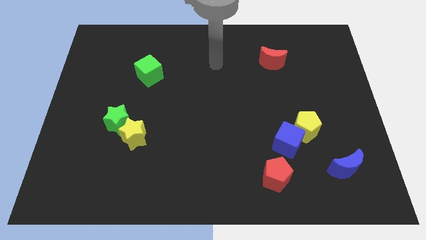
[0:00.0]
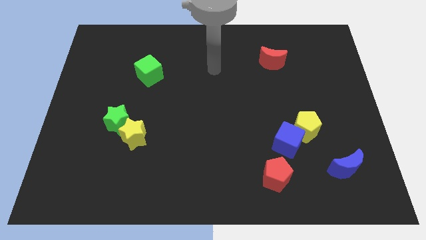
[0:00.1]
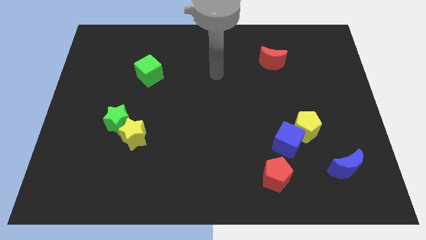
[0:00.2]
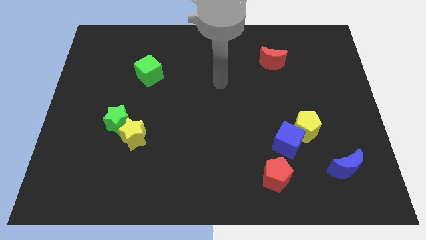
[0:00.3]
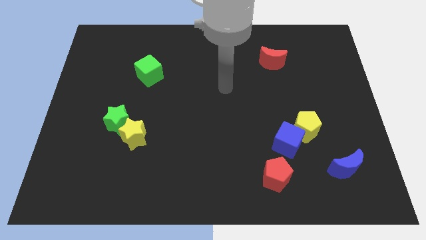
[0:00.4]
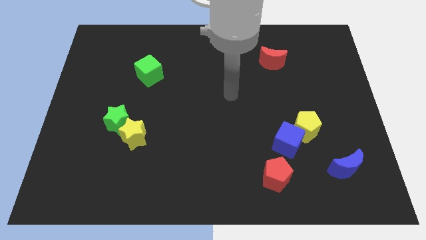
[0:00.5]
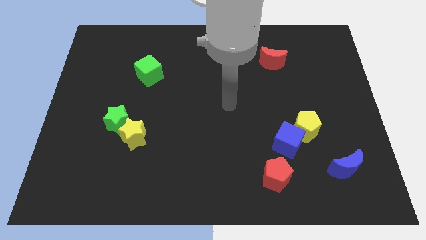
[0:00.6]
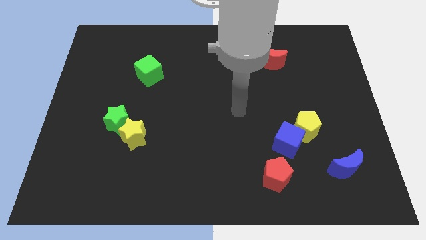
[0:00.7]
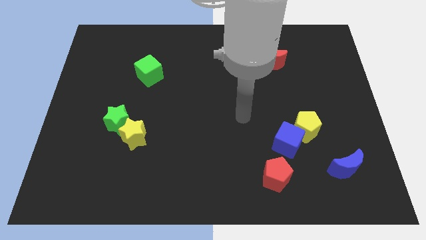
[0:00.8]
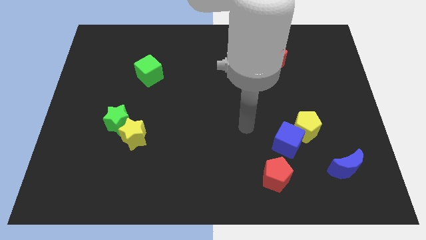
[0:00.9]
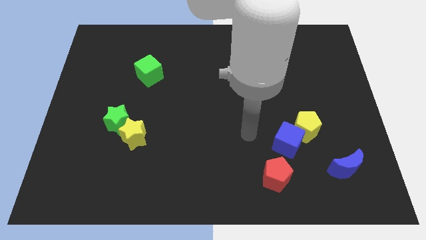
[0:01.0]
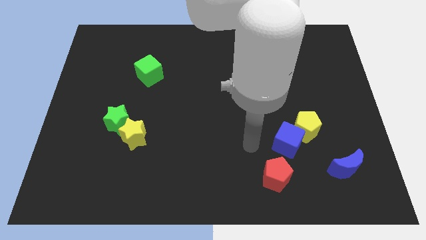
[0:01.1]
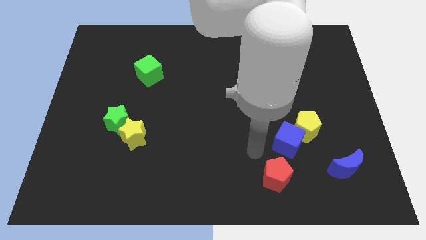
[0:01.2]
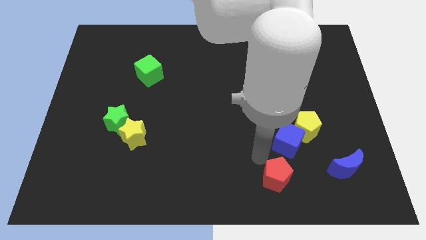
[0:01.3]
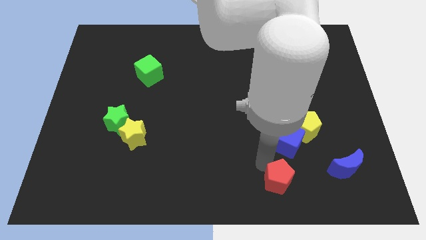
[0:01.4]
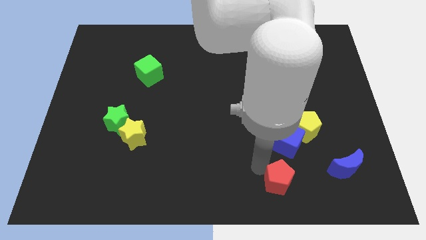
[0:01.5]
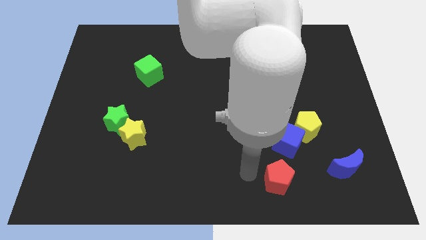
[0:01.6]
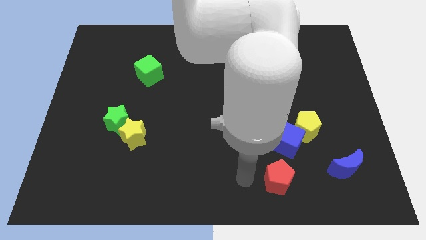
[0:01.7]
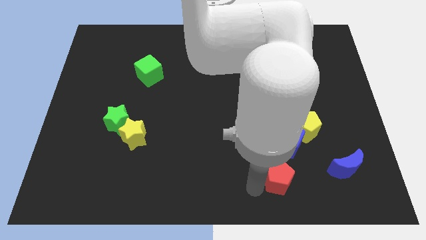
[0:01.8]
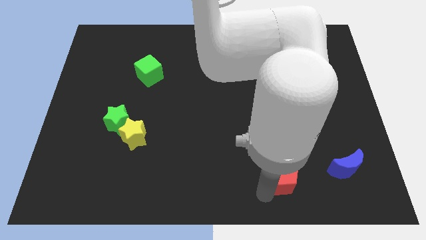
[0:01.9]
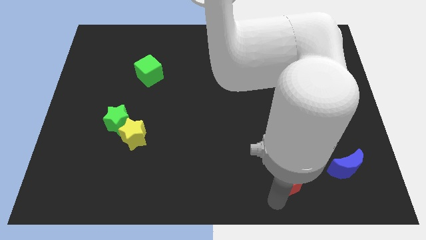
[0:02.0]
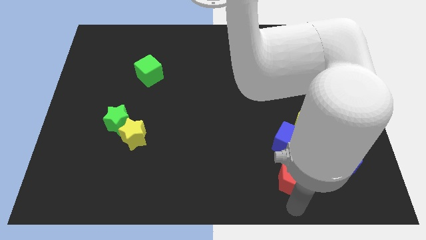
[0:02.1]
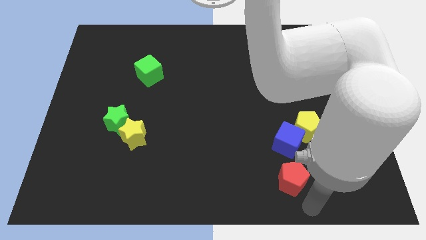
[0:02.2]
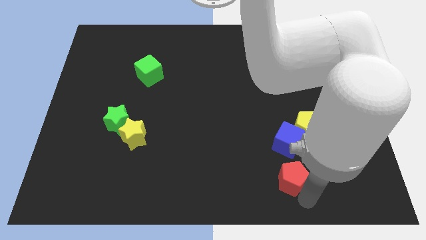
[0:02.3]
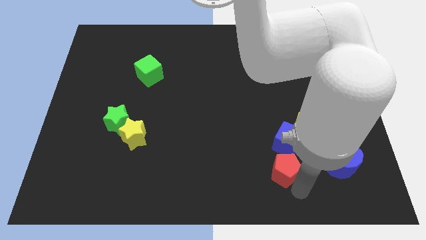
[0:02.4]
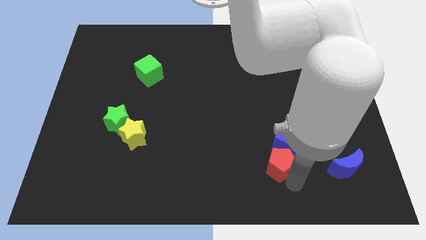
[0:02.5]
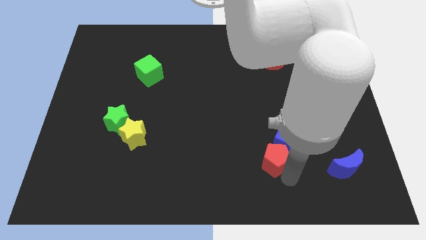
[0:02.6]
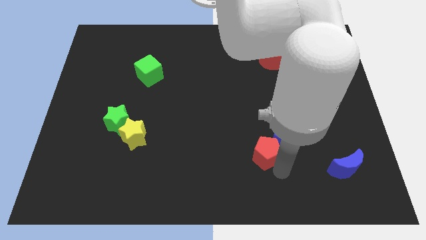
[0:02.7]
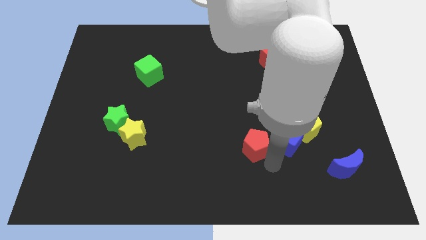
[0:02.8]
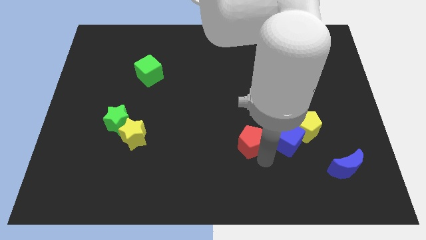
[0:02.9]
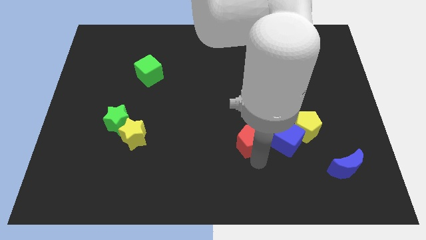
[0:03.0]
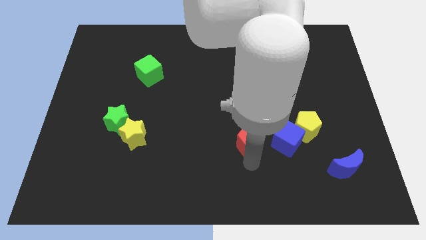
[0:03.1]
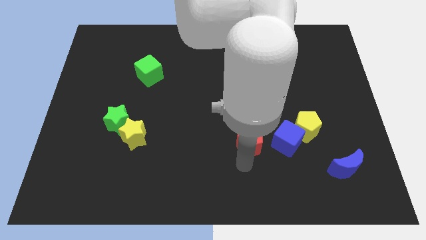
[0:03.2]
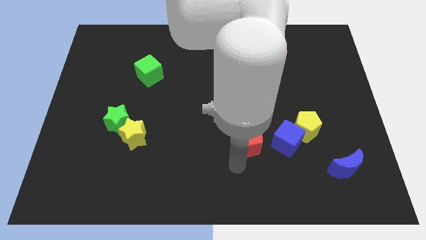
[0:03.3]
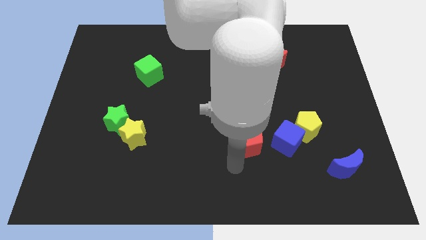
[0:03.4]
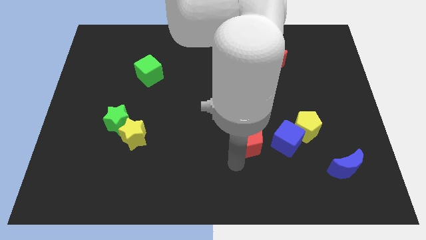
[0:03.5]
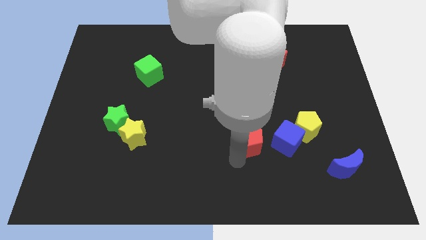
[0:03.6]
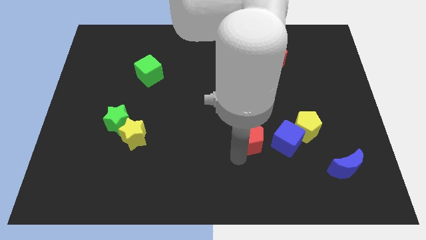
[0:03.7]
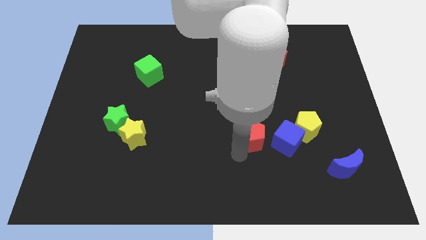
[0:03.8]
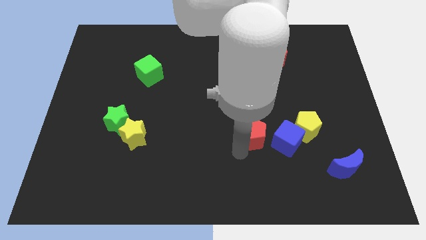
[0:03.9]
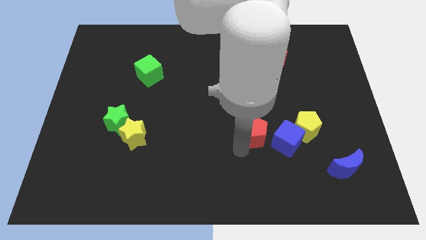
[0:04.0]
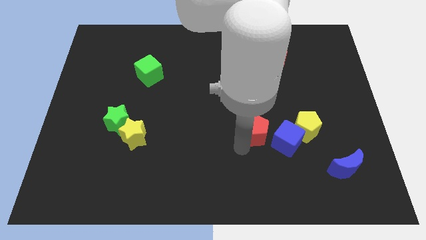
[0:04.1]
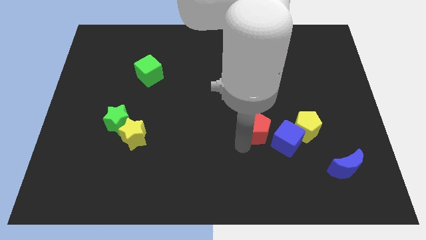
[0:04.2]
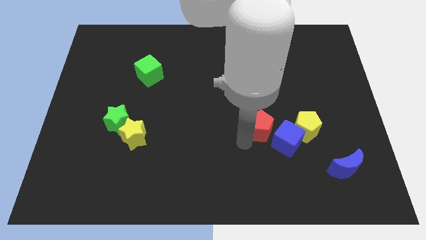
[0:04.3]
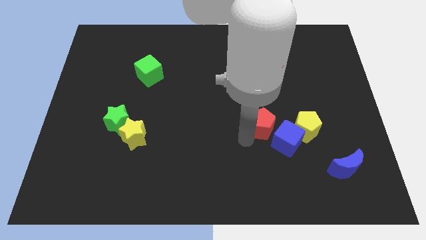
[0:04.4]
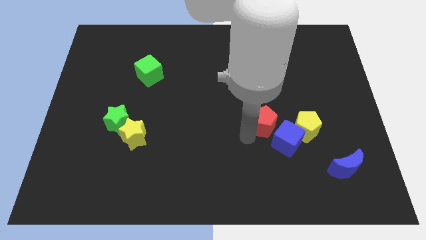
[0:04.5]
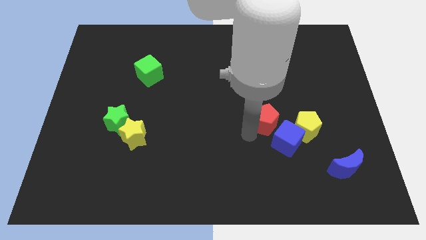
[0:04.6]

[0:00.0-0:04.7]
push the red pentagon to the top left side of the yellow pentagon

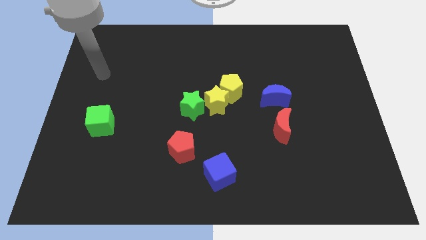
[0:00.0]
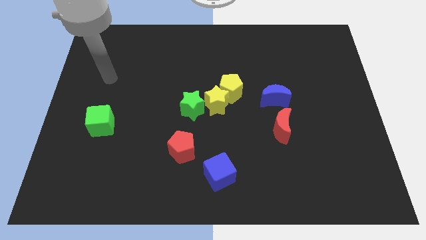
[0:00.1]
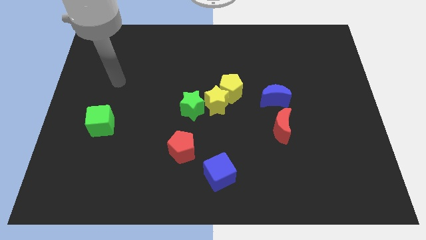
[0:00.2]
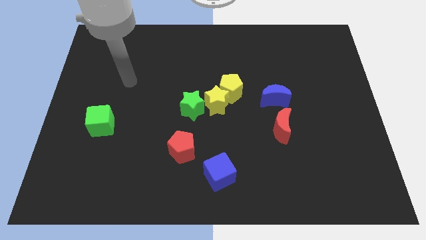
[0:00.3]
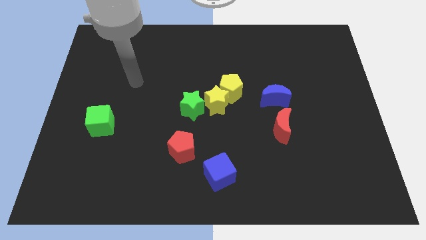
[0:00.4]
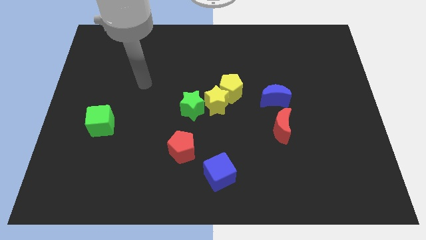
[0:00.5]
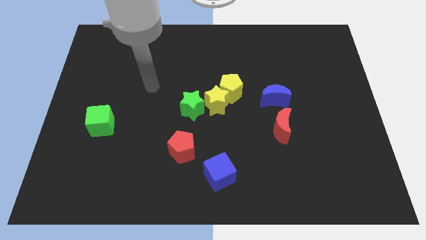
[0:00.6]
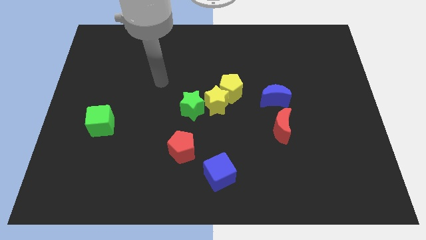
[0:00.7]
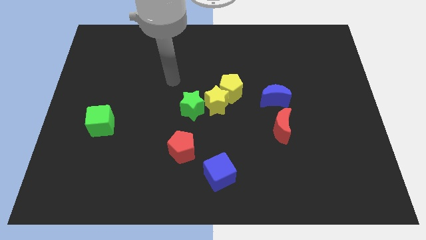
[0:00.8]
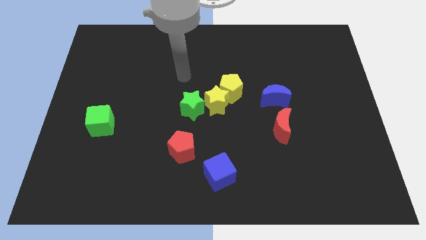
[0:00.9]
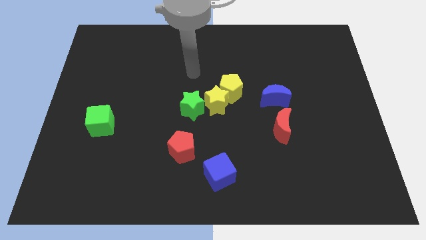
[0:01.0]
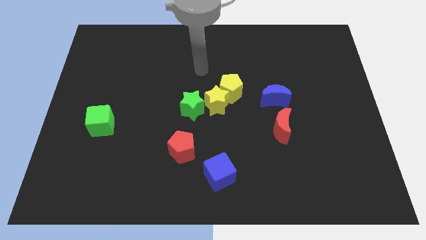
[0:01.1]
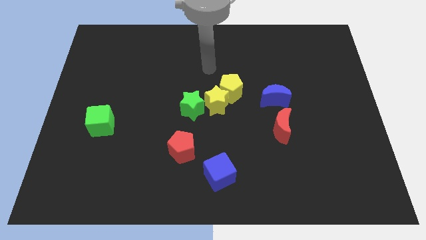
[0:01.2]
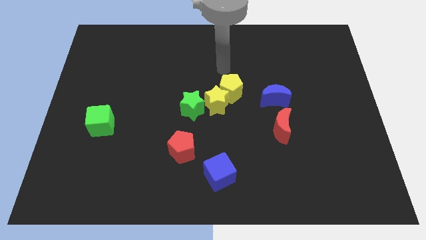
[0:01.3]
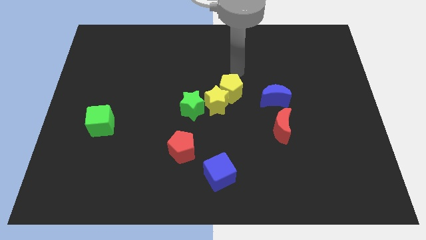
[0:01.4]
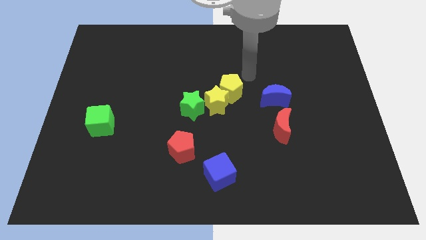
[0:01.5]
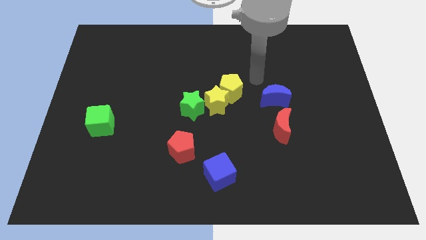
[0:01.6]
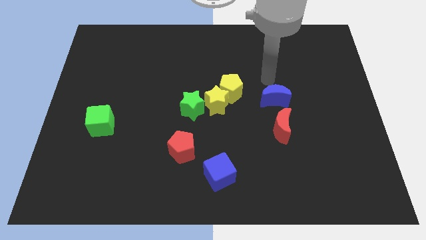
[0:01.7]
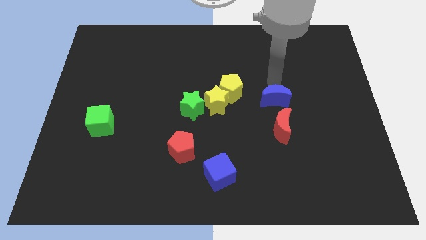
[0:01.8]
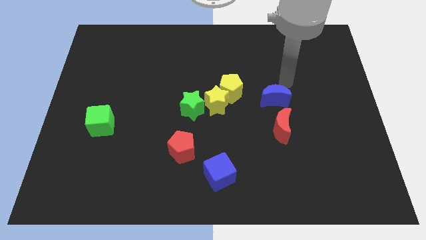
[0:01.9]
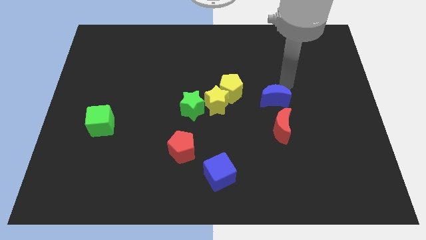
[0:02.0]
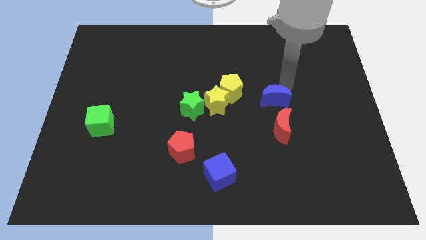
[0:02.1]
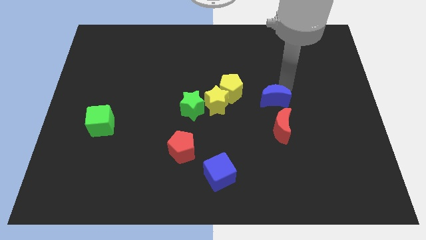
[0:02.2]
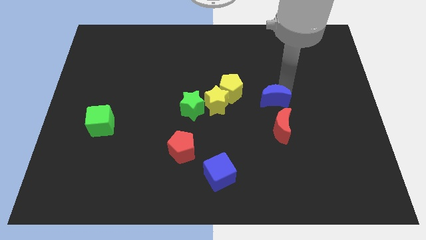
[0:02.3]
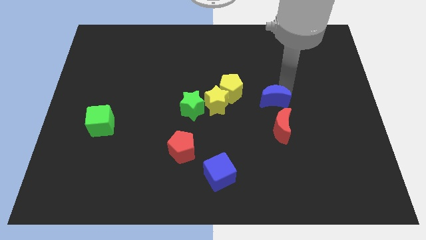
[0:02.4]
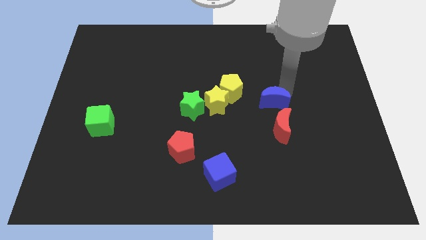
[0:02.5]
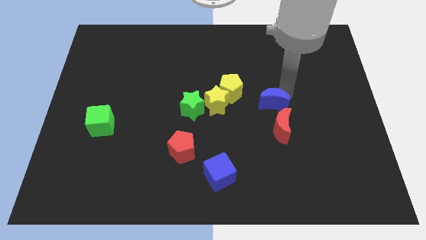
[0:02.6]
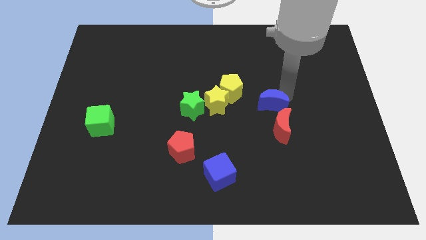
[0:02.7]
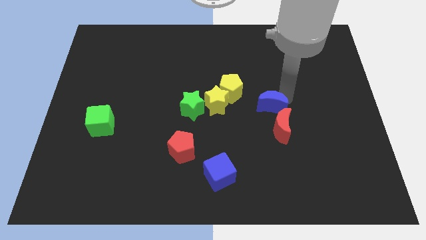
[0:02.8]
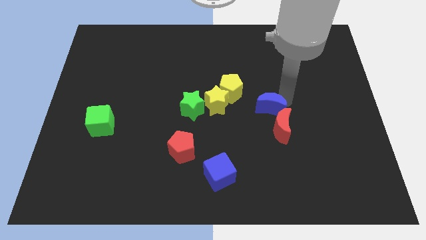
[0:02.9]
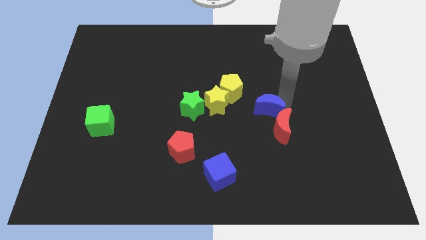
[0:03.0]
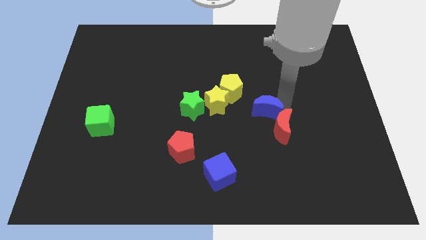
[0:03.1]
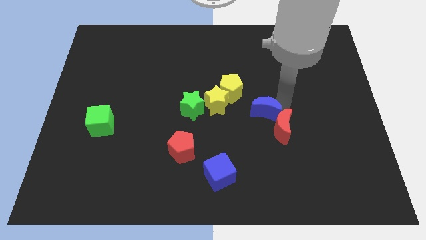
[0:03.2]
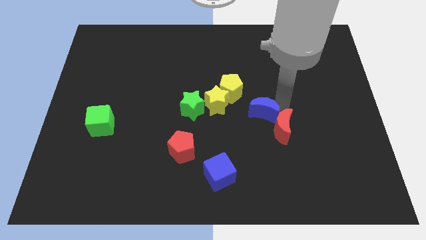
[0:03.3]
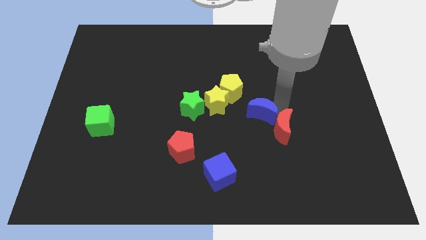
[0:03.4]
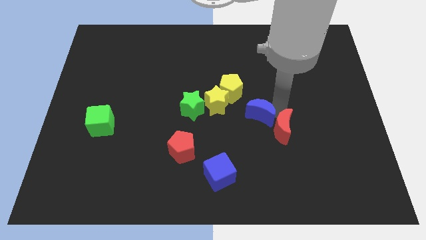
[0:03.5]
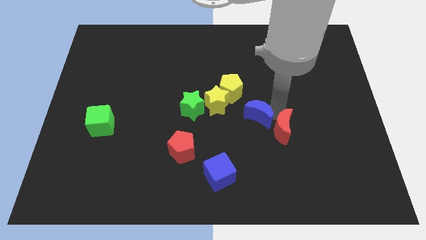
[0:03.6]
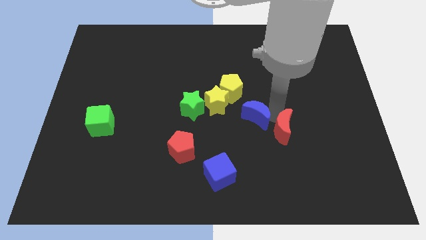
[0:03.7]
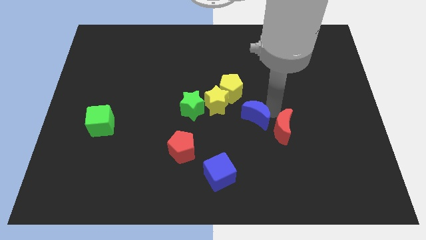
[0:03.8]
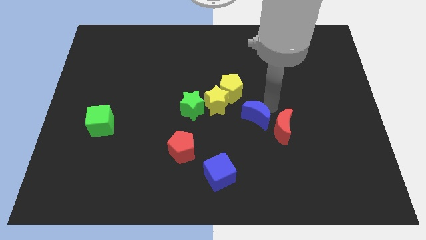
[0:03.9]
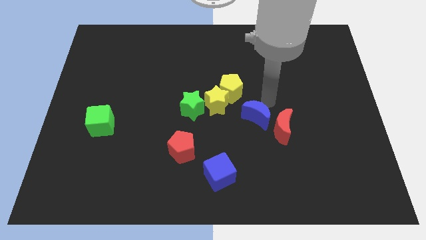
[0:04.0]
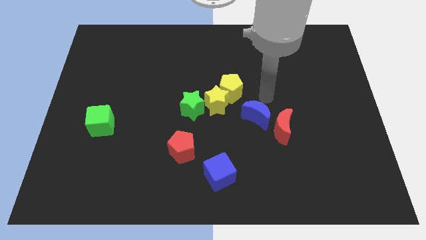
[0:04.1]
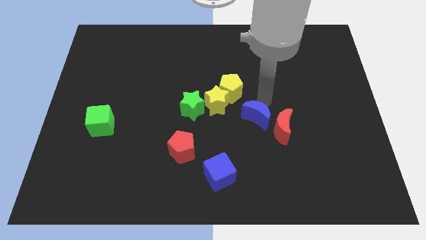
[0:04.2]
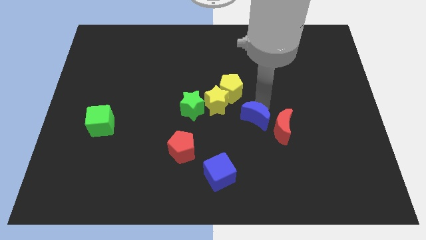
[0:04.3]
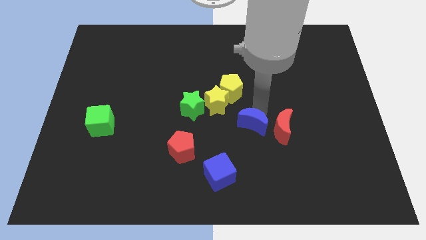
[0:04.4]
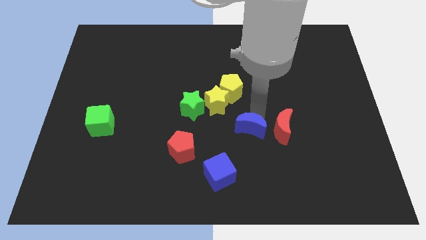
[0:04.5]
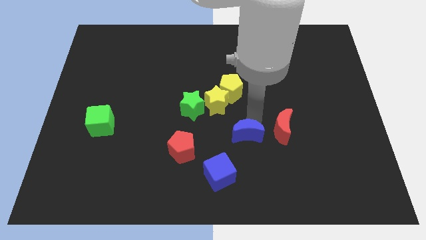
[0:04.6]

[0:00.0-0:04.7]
move the blue moon diagonally up and to the right of the blue cube
